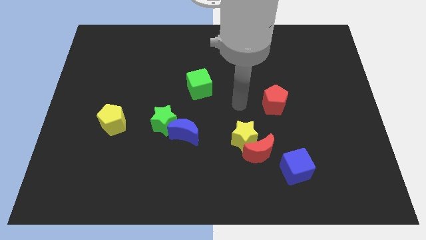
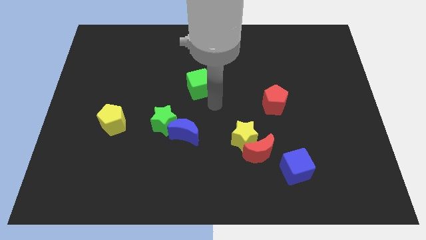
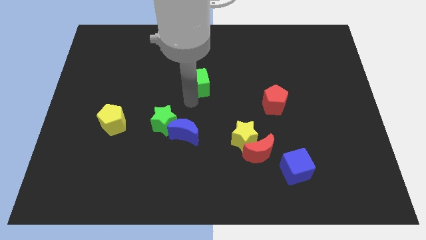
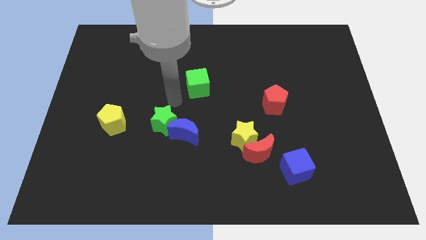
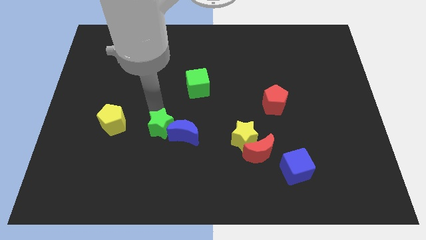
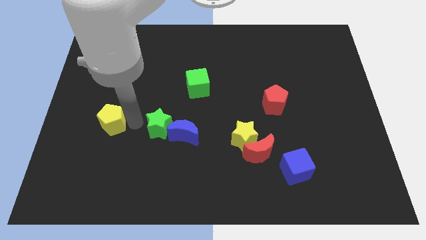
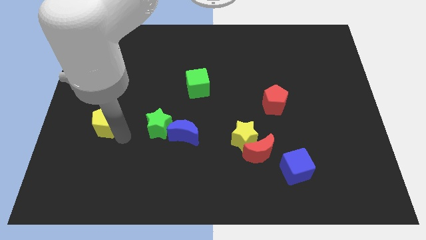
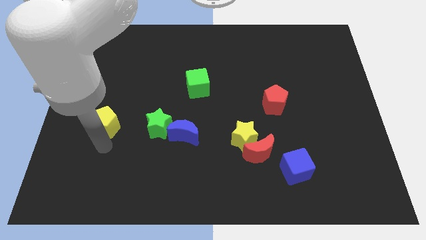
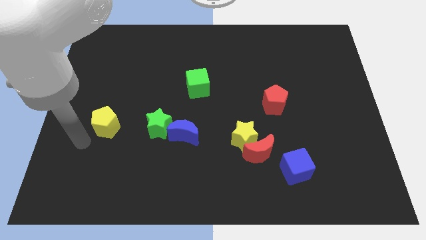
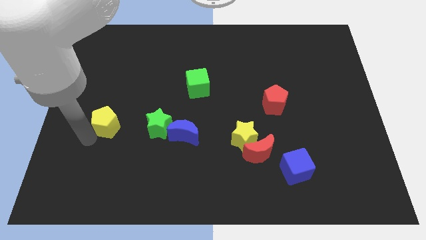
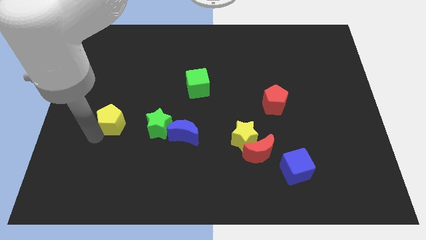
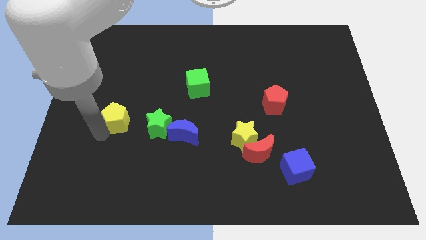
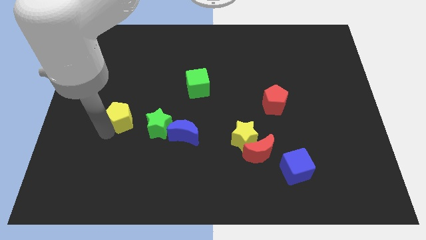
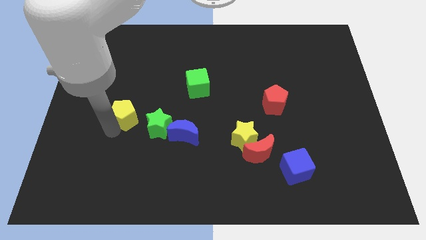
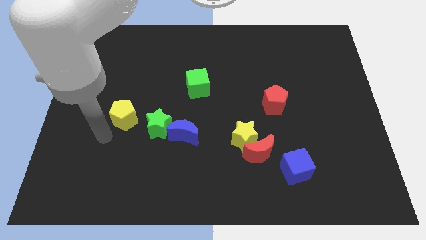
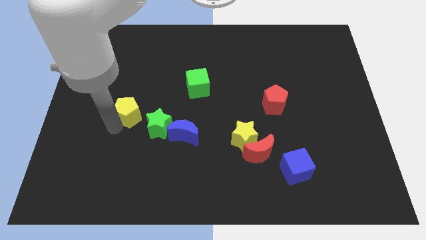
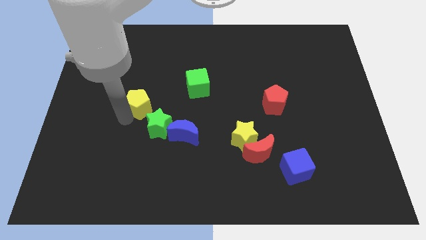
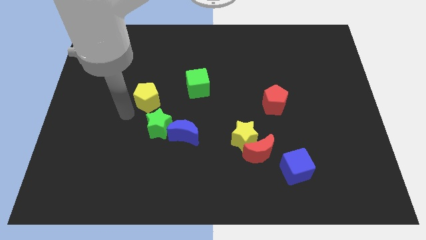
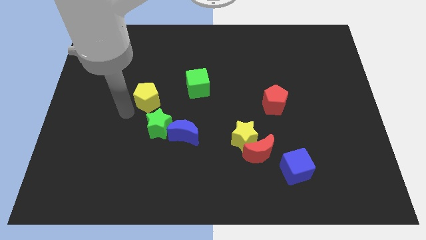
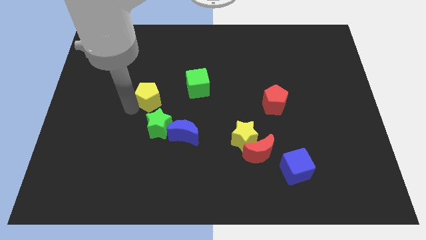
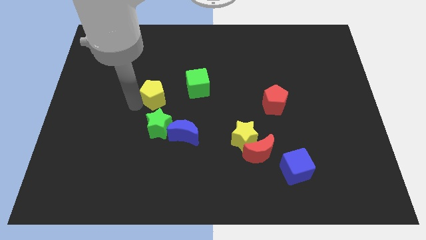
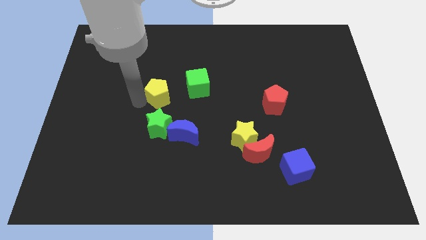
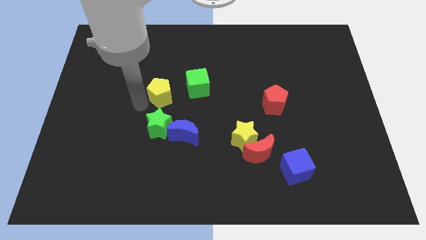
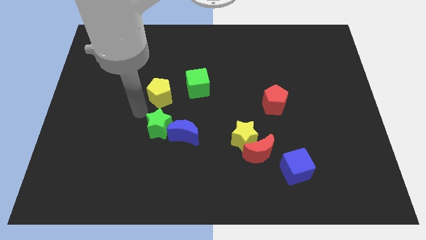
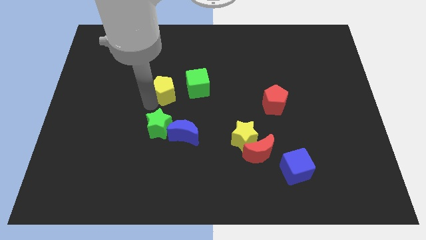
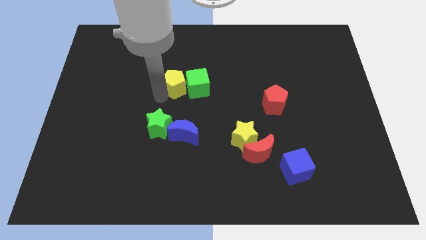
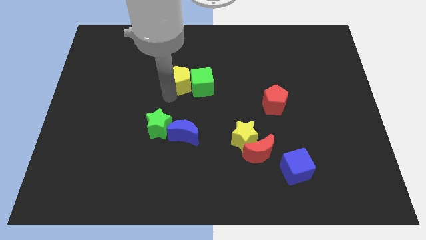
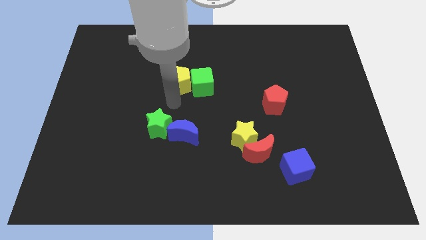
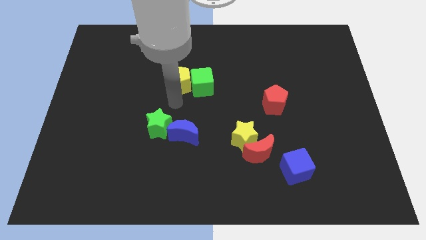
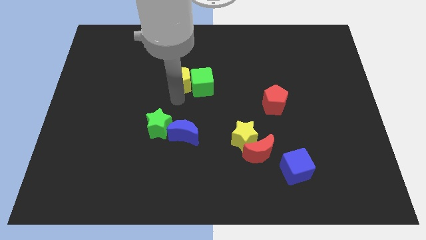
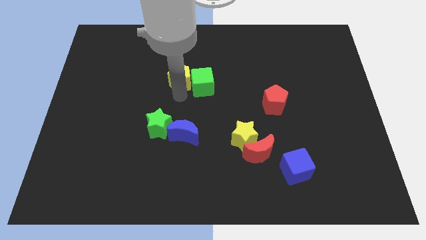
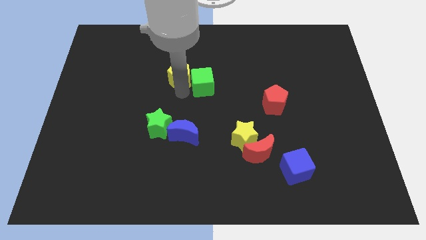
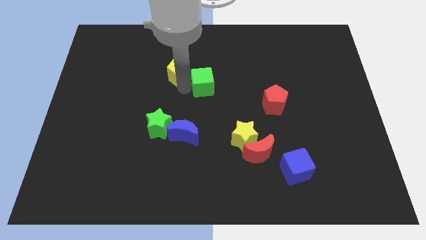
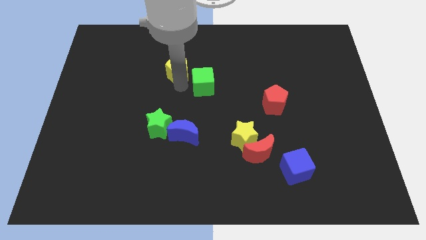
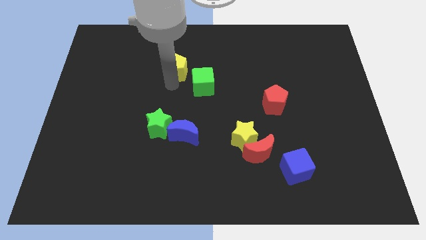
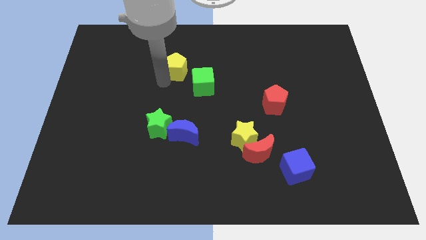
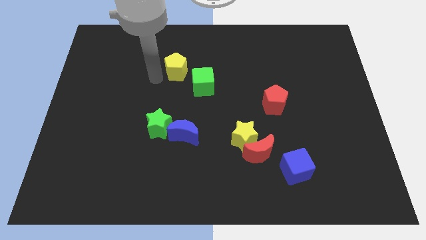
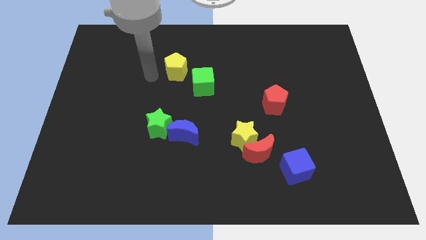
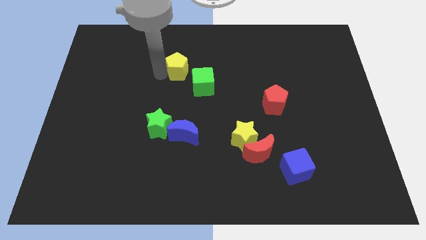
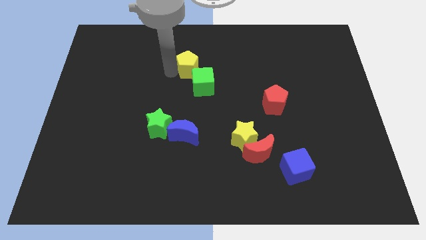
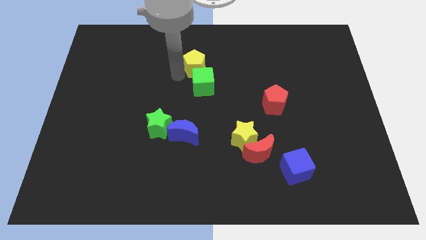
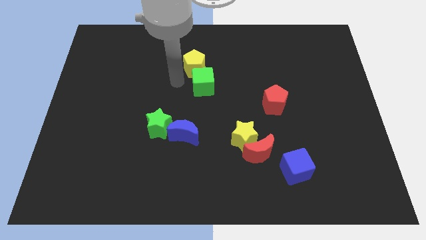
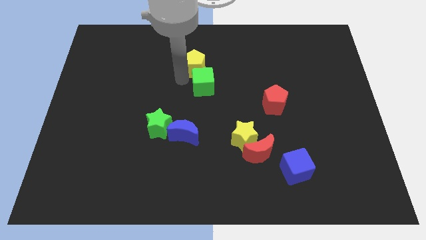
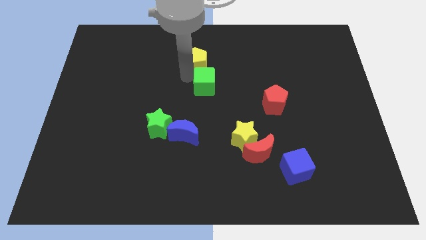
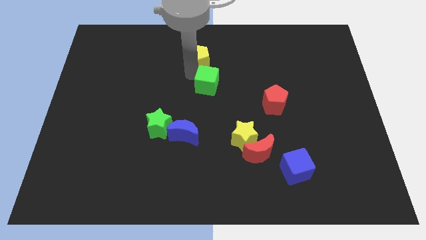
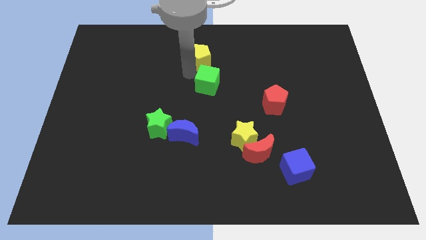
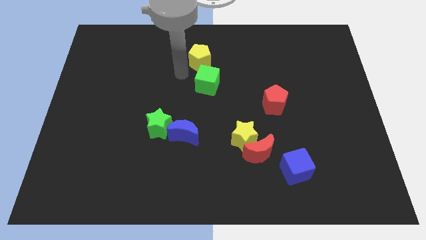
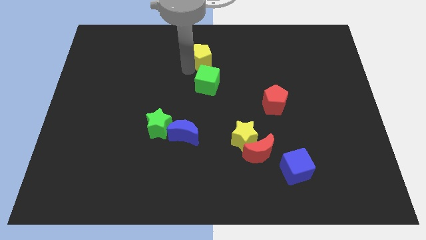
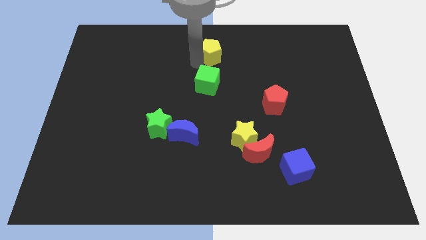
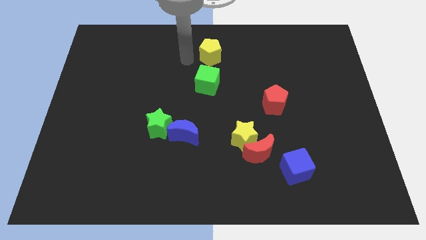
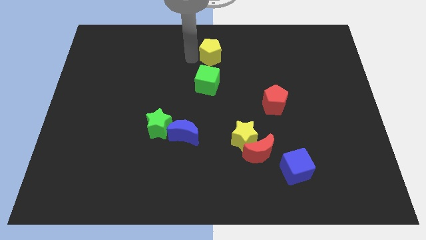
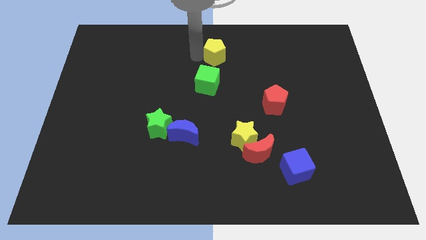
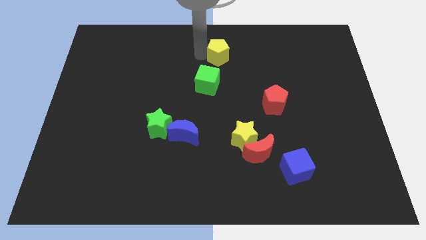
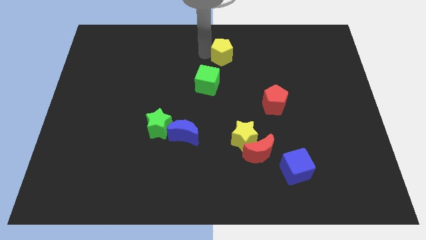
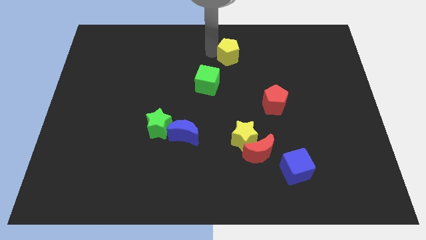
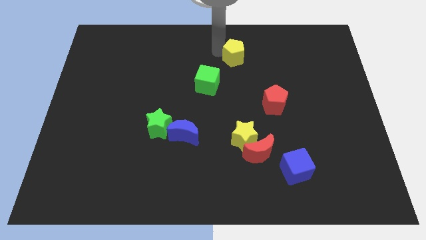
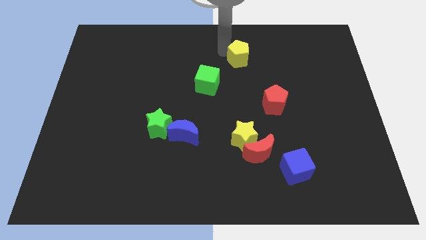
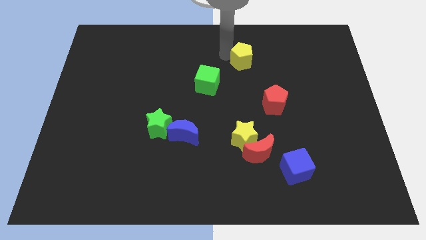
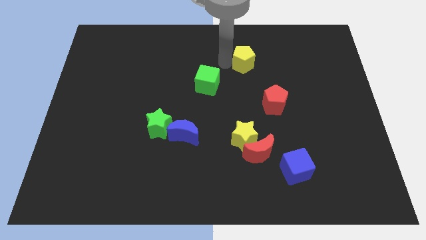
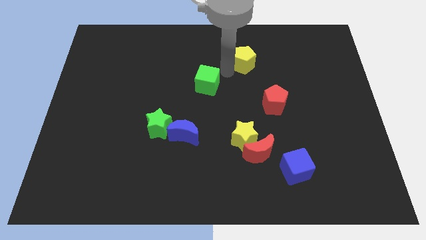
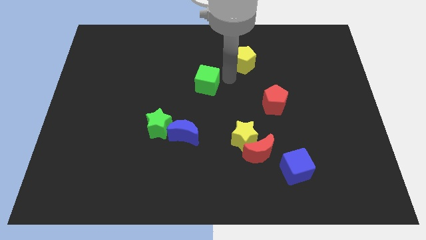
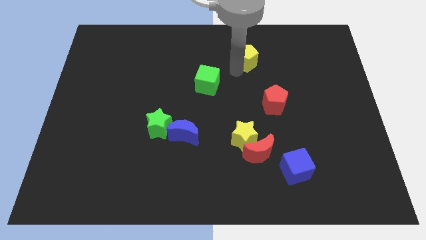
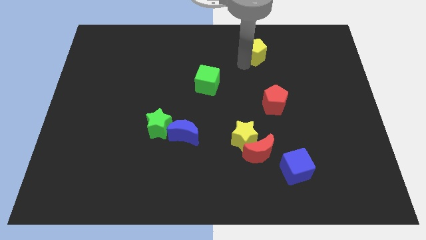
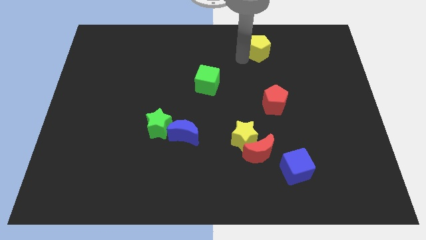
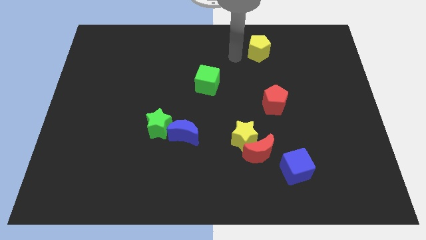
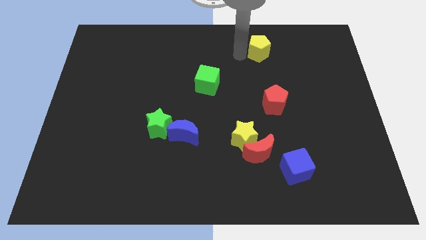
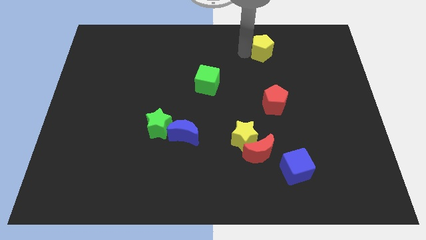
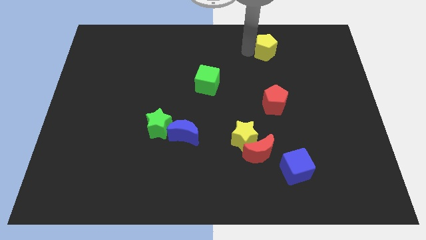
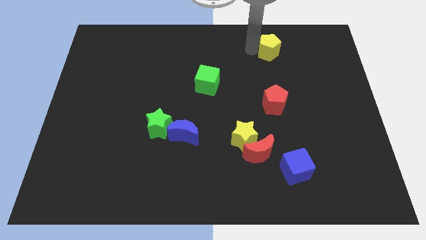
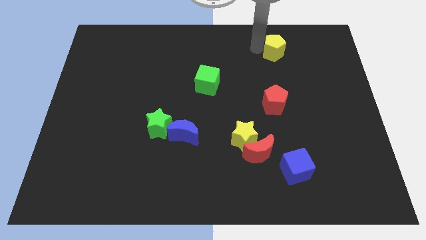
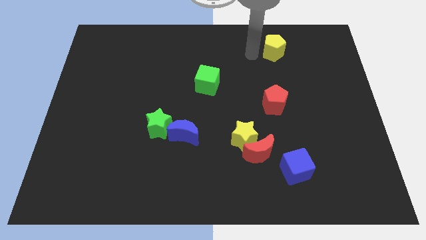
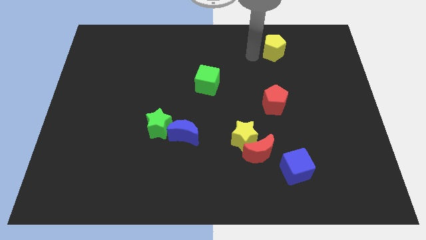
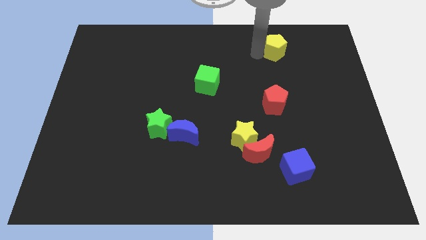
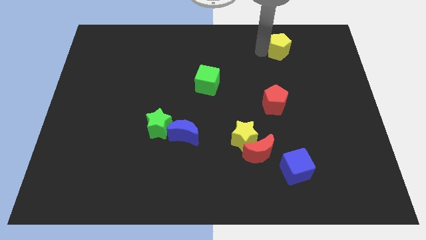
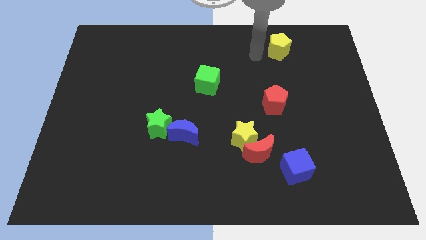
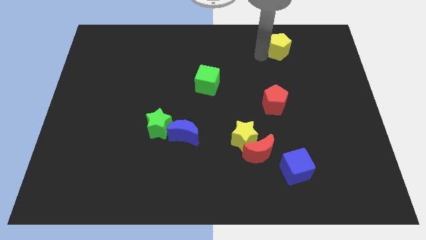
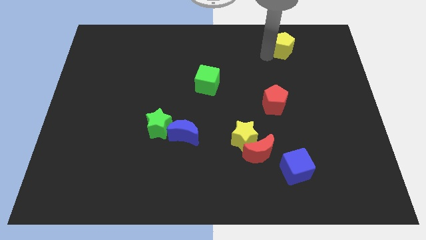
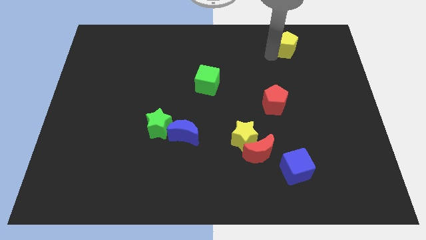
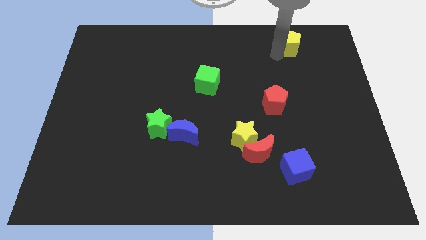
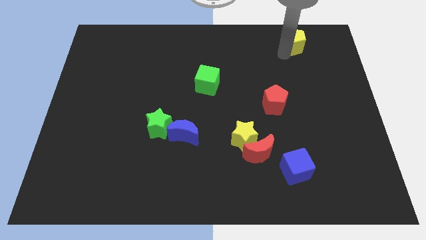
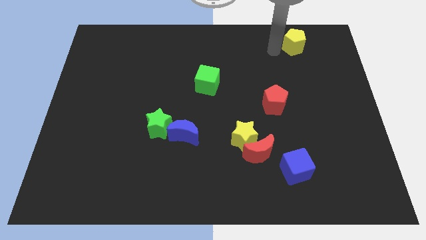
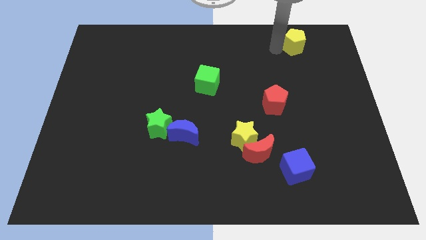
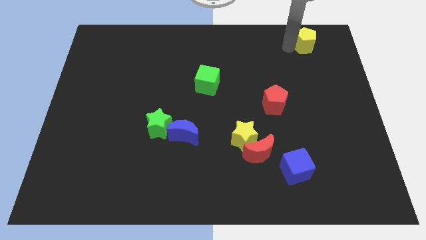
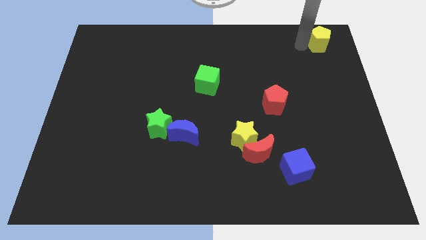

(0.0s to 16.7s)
put the yellow pentagon to the top right corner
